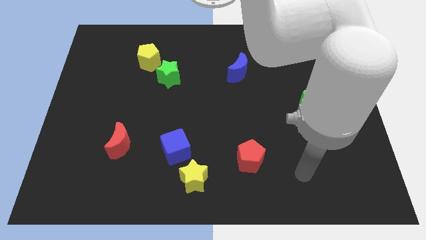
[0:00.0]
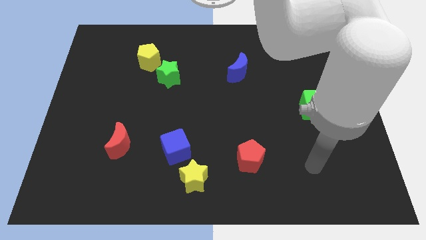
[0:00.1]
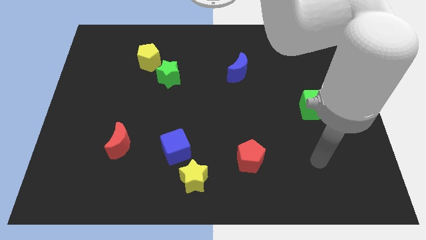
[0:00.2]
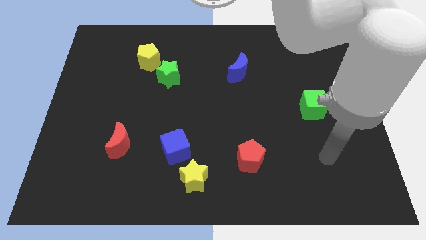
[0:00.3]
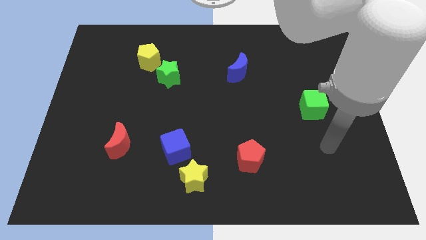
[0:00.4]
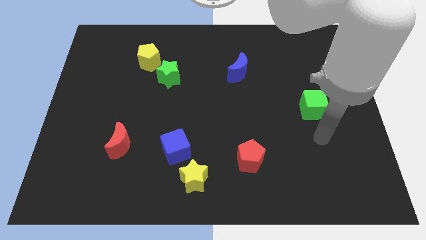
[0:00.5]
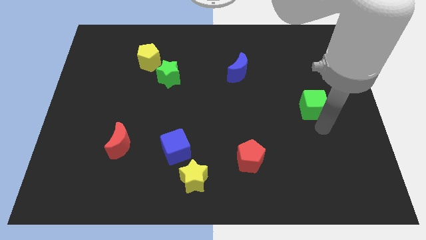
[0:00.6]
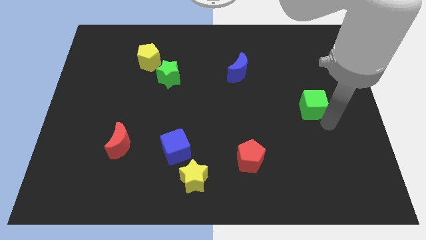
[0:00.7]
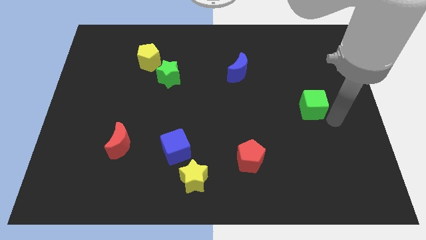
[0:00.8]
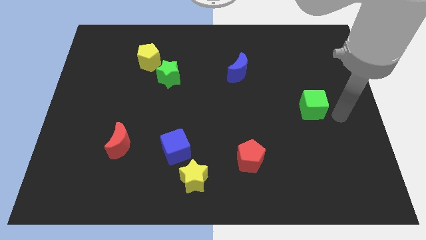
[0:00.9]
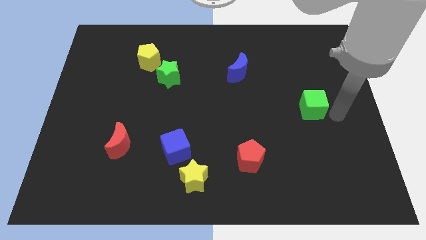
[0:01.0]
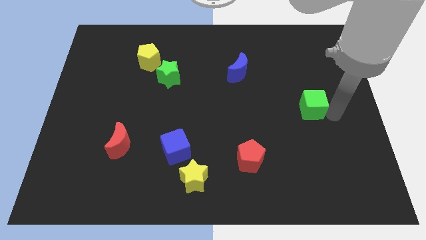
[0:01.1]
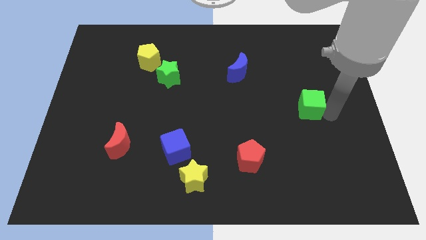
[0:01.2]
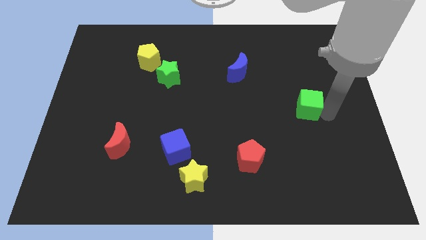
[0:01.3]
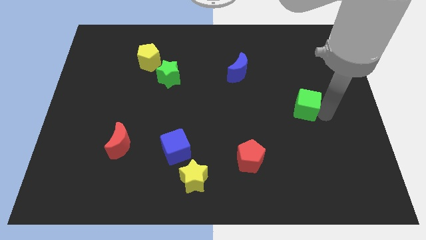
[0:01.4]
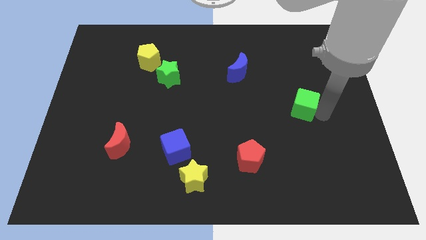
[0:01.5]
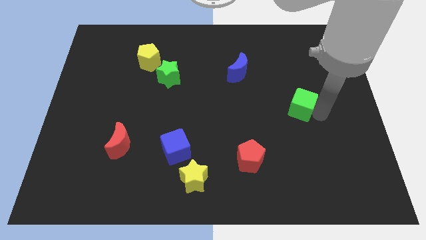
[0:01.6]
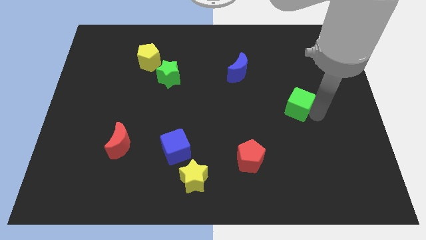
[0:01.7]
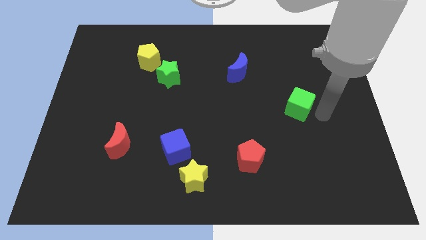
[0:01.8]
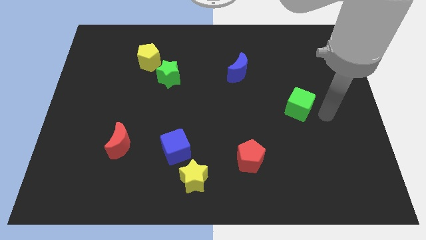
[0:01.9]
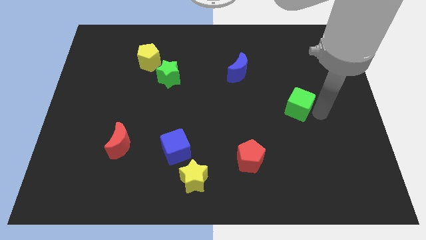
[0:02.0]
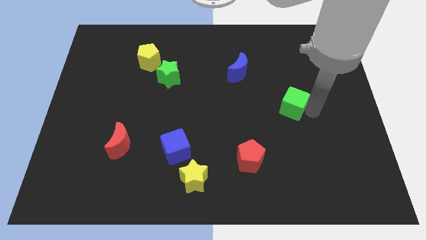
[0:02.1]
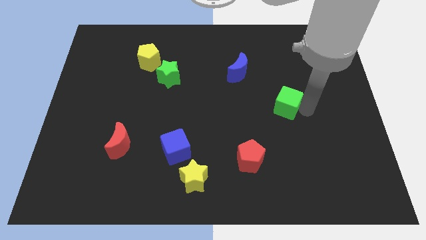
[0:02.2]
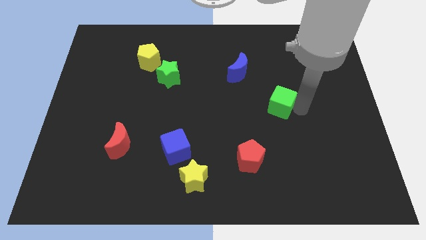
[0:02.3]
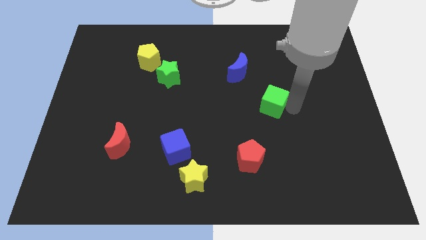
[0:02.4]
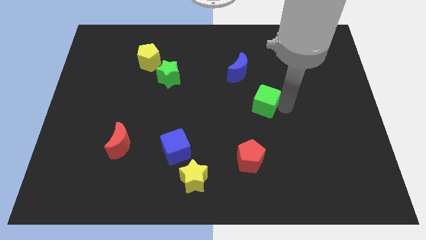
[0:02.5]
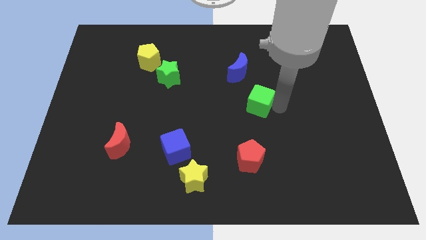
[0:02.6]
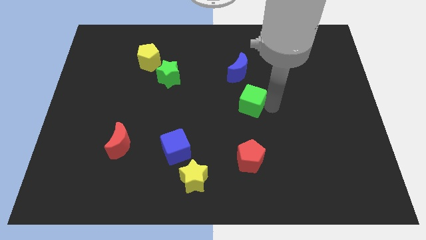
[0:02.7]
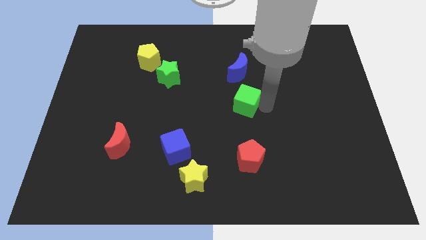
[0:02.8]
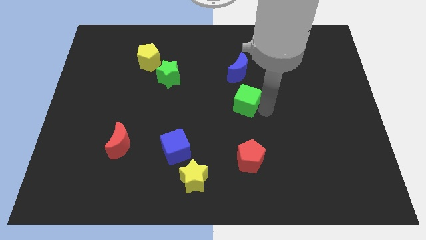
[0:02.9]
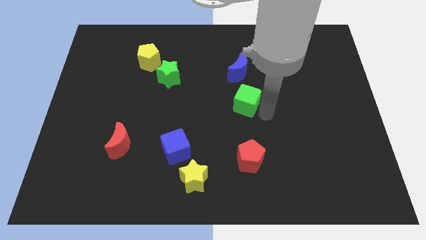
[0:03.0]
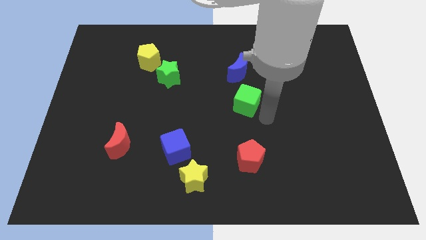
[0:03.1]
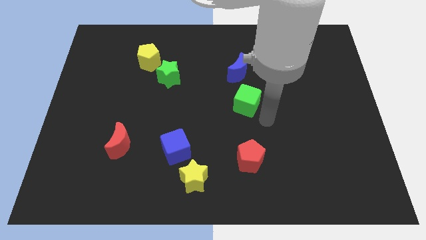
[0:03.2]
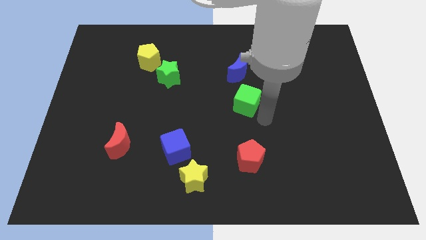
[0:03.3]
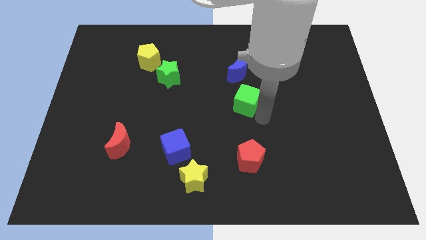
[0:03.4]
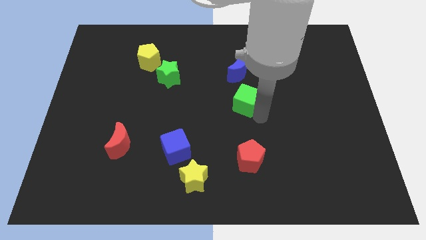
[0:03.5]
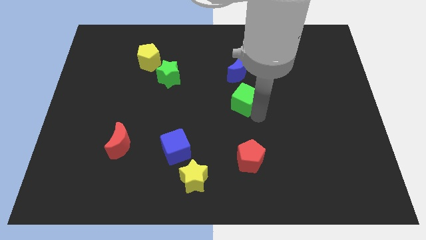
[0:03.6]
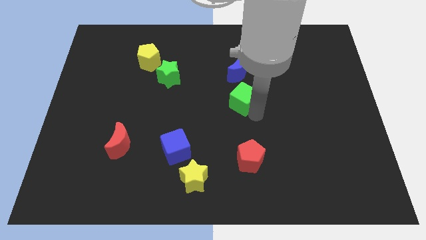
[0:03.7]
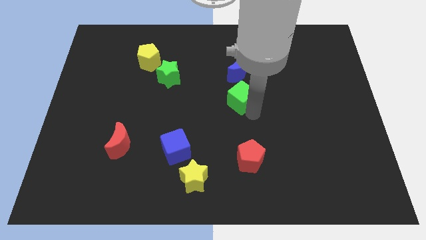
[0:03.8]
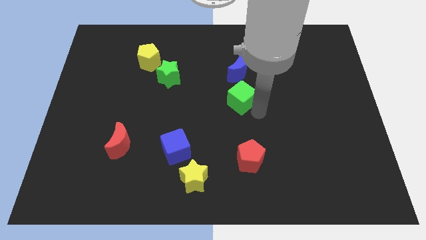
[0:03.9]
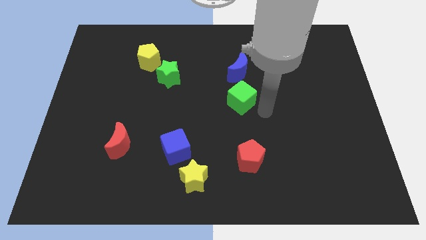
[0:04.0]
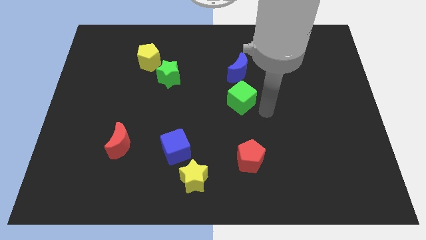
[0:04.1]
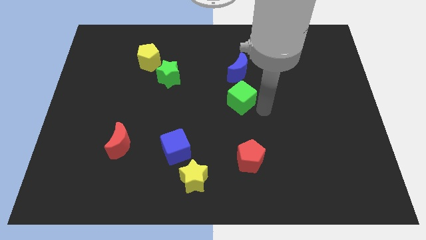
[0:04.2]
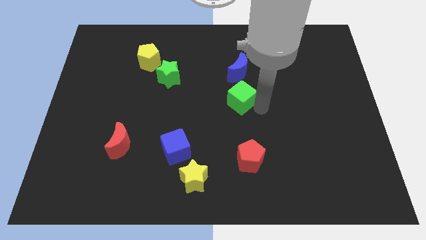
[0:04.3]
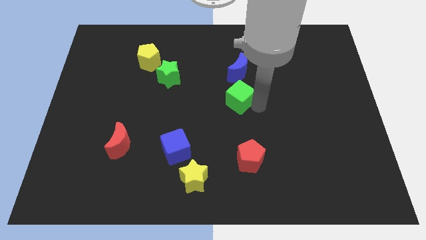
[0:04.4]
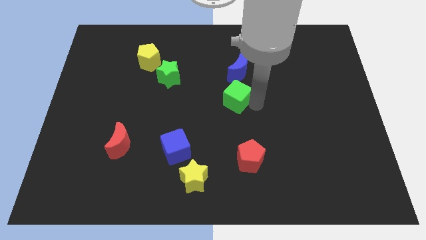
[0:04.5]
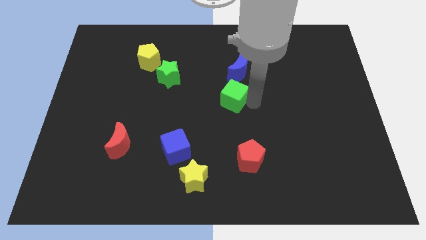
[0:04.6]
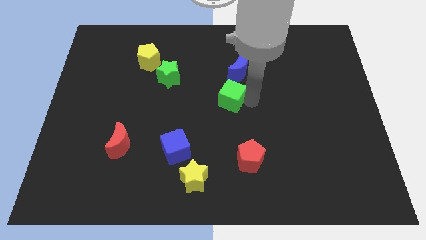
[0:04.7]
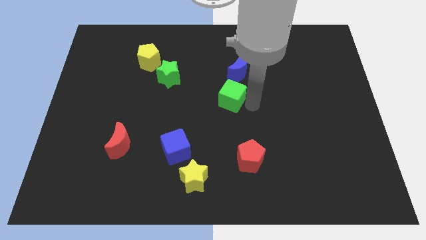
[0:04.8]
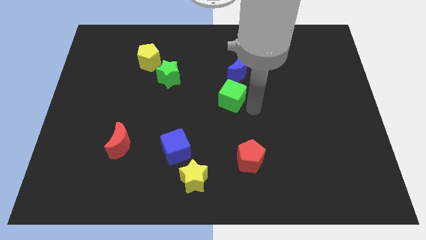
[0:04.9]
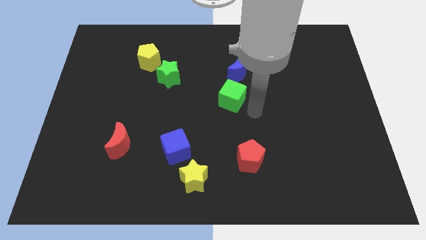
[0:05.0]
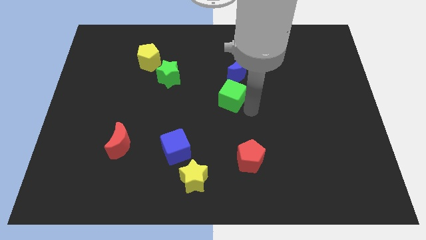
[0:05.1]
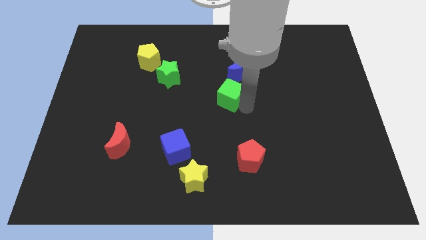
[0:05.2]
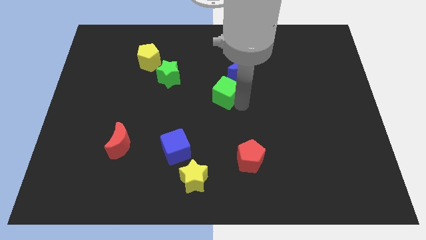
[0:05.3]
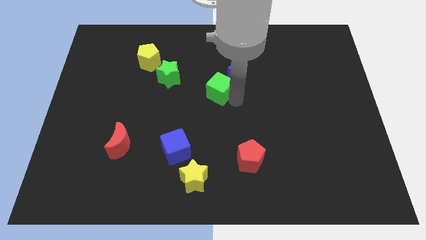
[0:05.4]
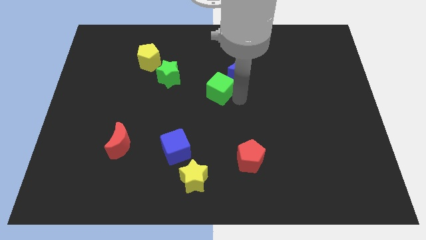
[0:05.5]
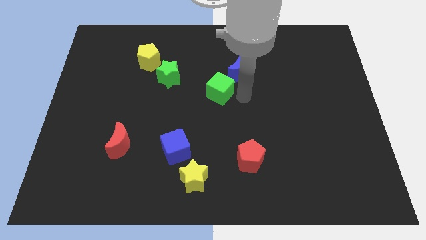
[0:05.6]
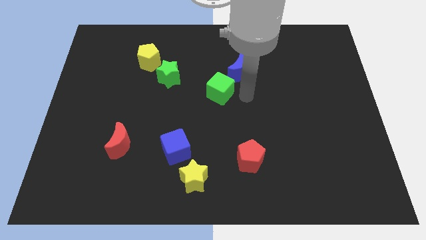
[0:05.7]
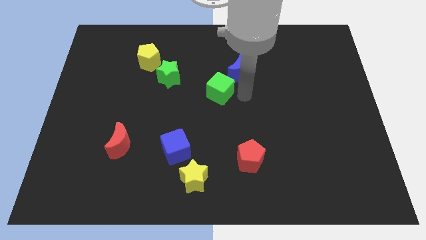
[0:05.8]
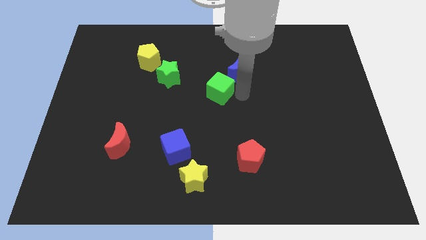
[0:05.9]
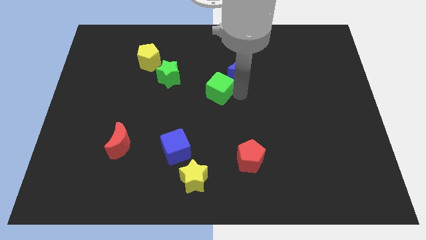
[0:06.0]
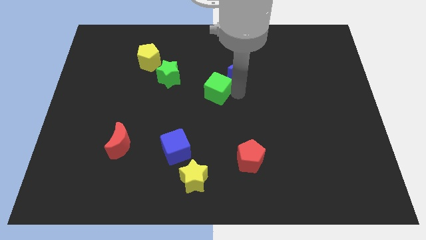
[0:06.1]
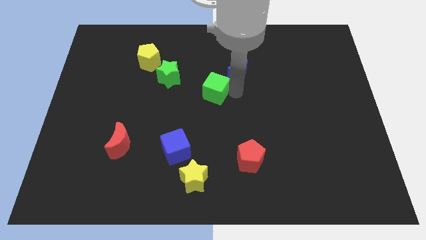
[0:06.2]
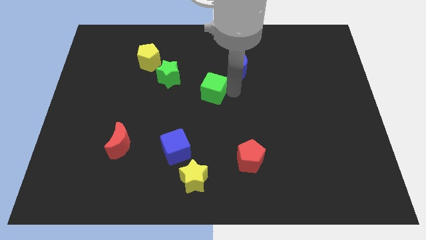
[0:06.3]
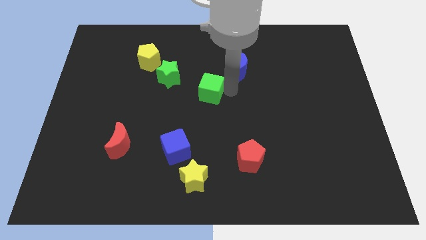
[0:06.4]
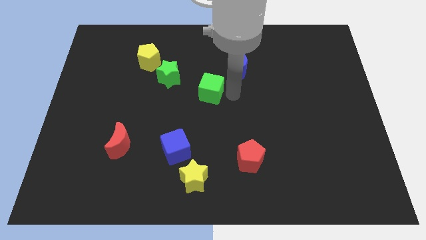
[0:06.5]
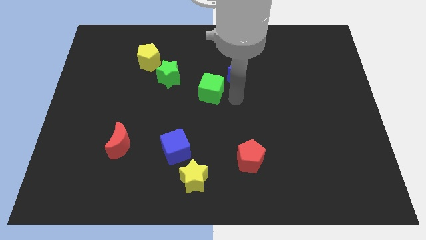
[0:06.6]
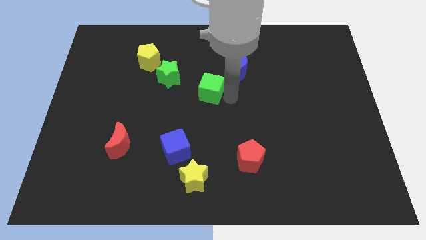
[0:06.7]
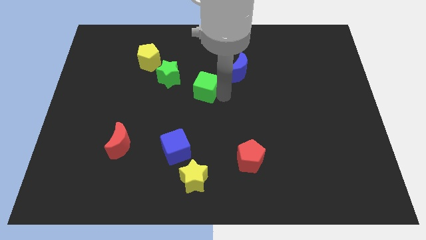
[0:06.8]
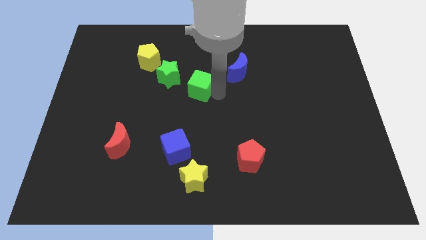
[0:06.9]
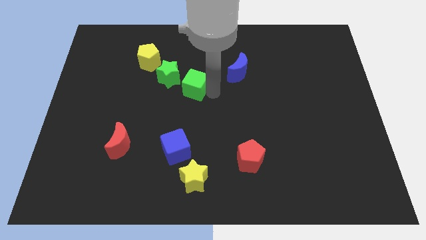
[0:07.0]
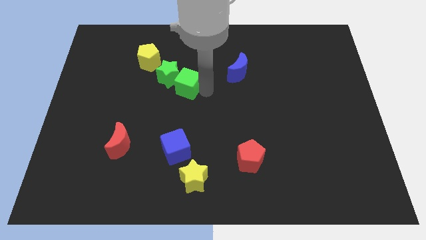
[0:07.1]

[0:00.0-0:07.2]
put the green cube close to the green star
